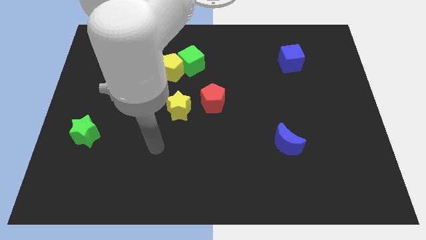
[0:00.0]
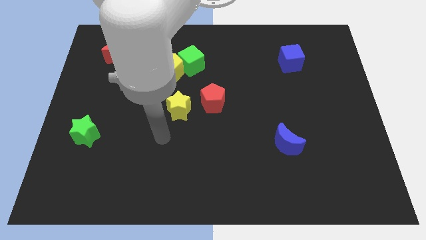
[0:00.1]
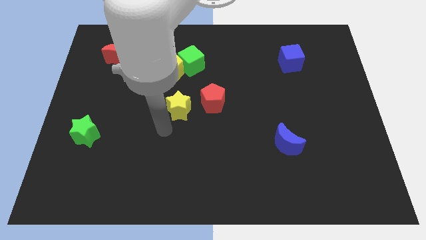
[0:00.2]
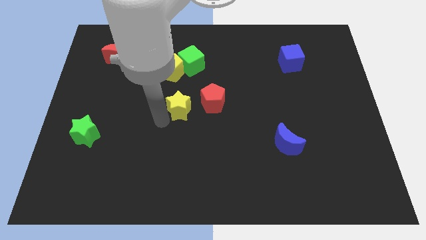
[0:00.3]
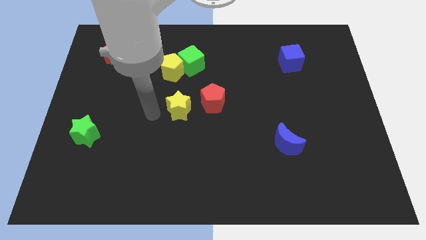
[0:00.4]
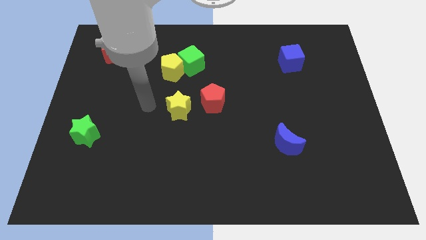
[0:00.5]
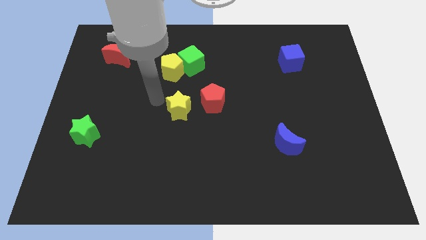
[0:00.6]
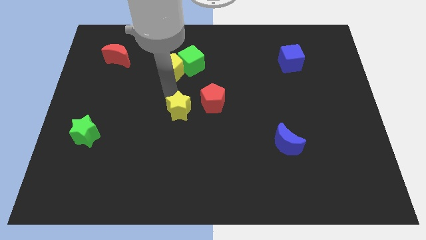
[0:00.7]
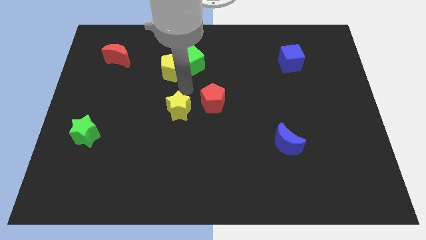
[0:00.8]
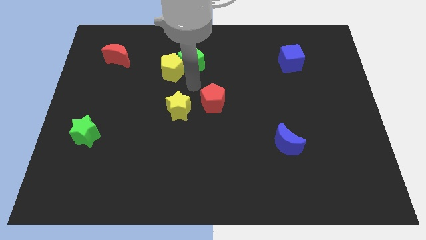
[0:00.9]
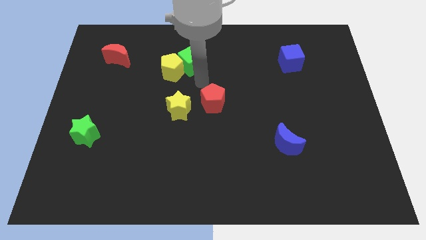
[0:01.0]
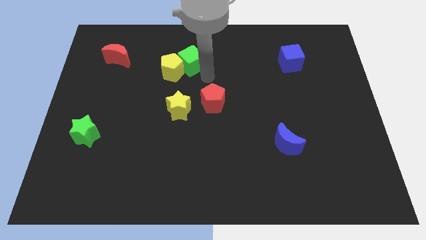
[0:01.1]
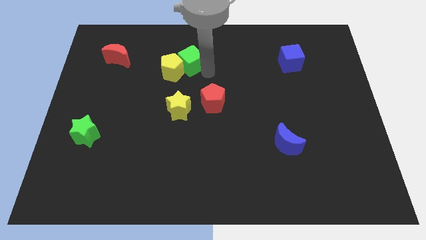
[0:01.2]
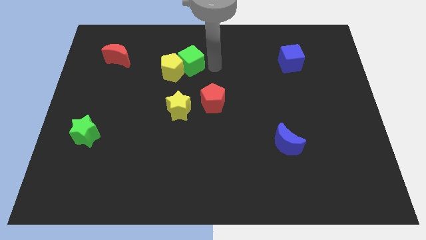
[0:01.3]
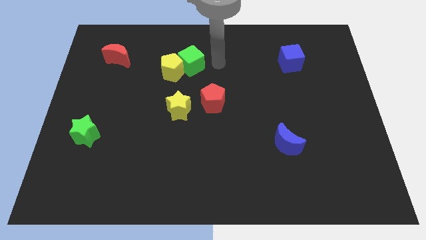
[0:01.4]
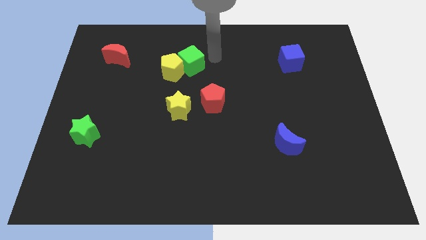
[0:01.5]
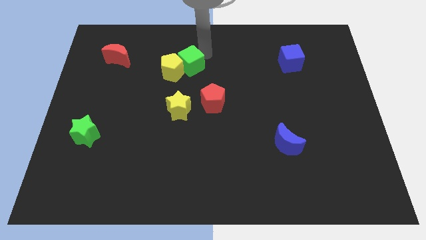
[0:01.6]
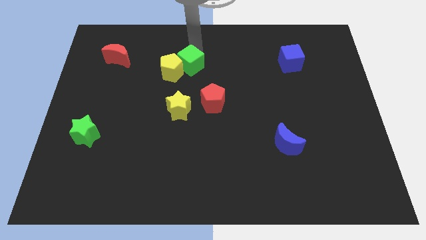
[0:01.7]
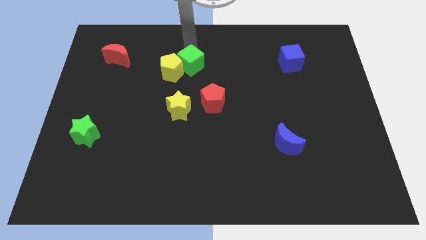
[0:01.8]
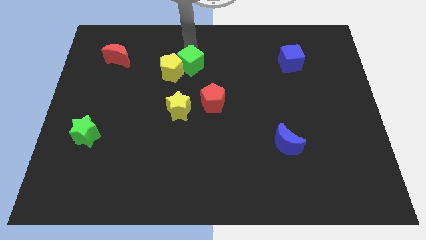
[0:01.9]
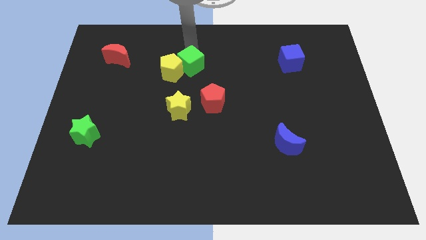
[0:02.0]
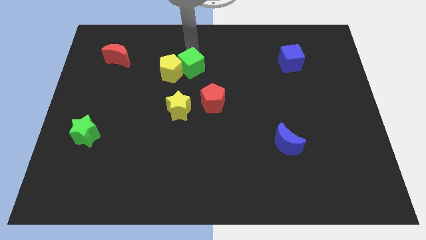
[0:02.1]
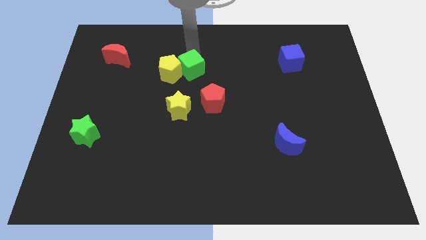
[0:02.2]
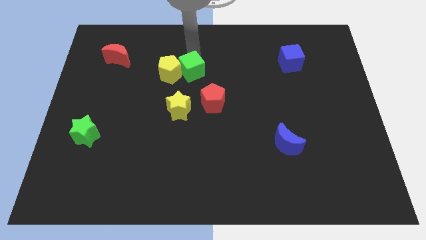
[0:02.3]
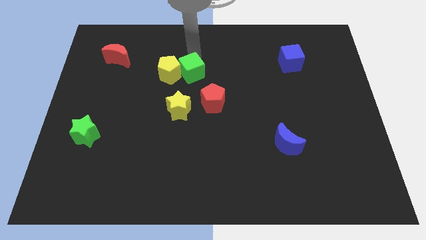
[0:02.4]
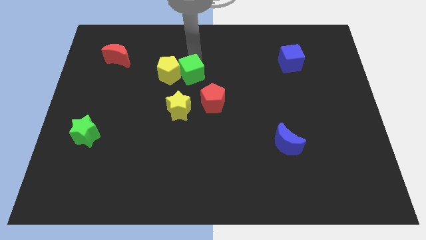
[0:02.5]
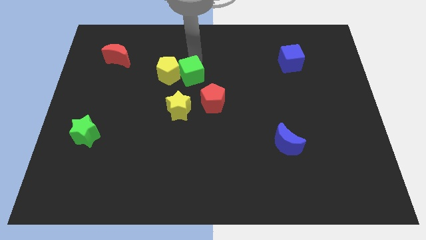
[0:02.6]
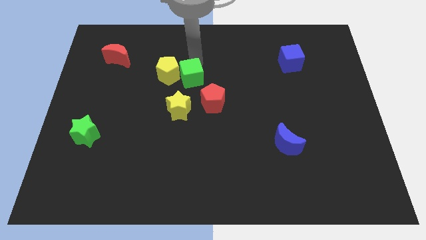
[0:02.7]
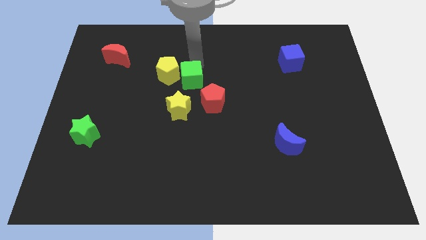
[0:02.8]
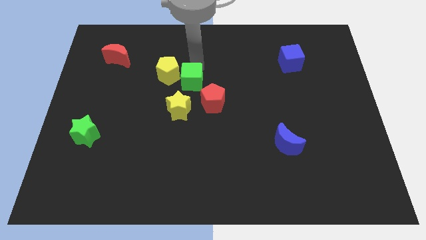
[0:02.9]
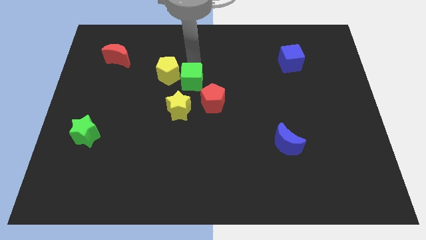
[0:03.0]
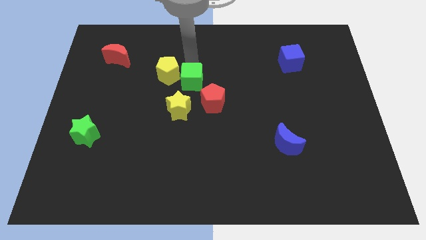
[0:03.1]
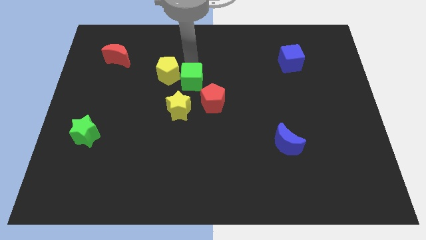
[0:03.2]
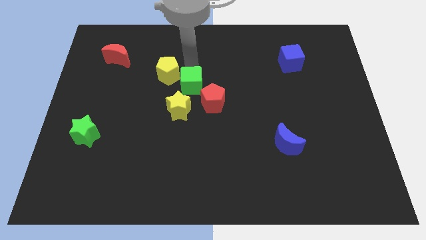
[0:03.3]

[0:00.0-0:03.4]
push the green cube slightly down

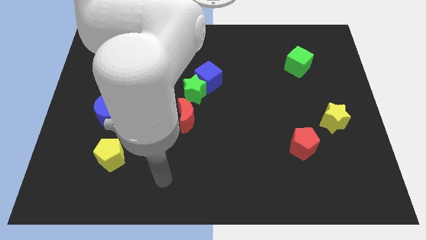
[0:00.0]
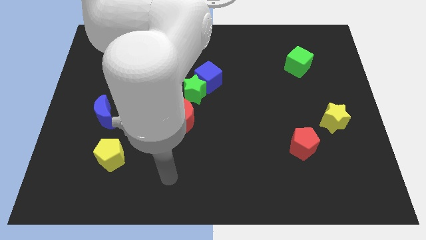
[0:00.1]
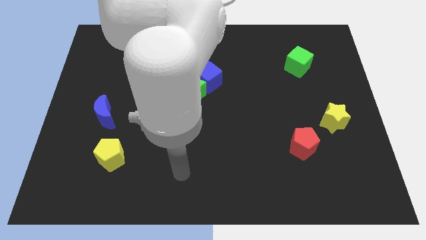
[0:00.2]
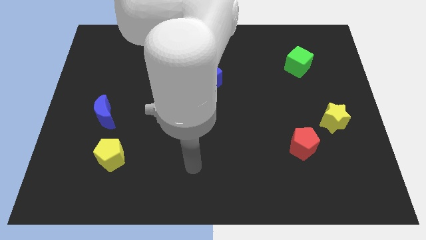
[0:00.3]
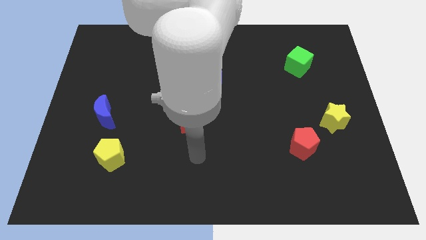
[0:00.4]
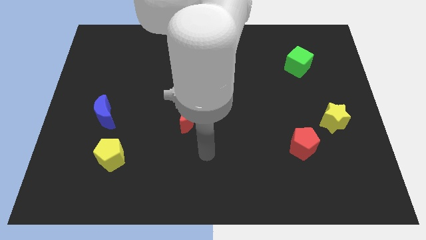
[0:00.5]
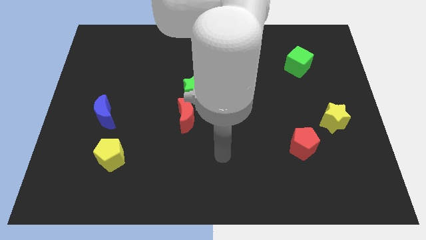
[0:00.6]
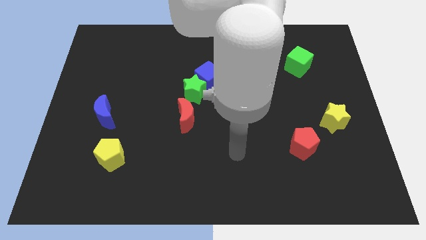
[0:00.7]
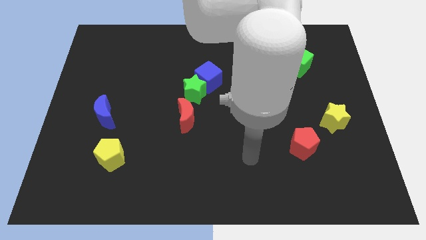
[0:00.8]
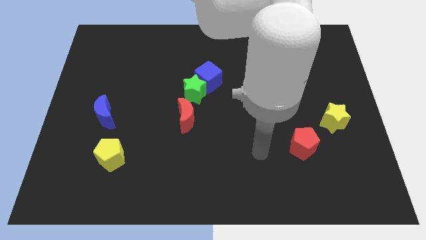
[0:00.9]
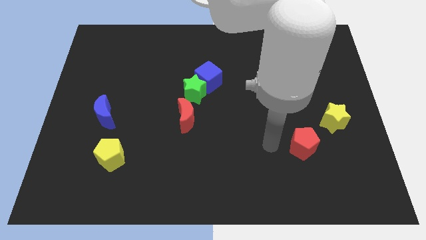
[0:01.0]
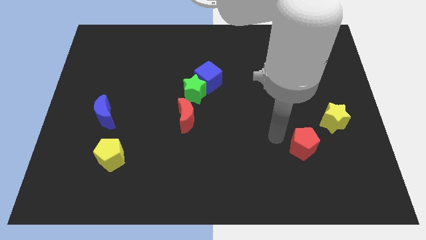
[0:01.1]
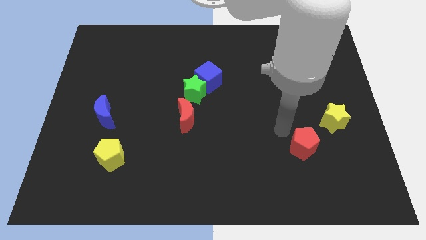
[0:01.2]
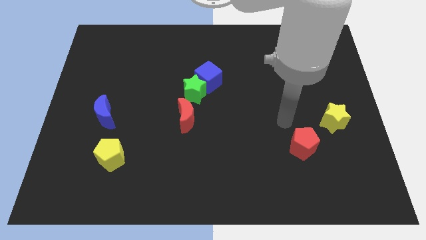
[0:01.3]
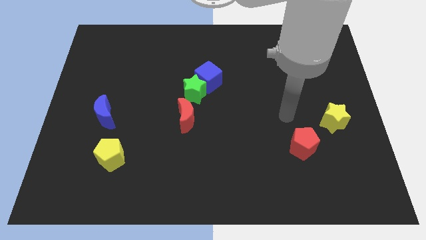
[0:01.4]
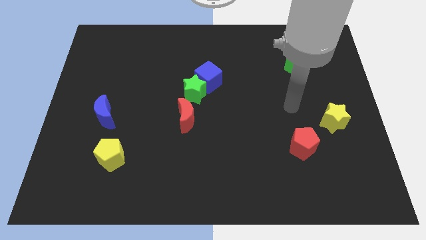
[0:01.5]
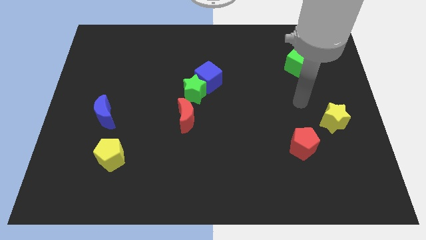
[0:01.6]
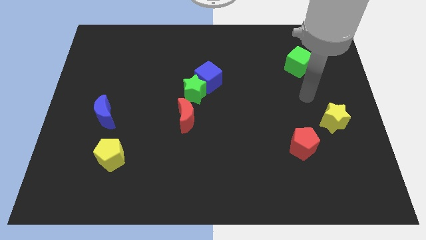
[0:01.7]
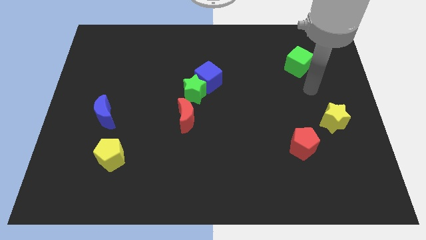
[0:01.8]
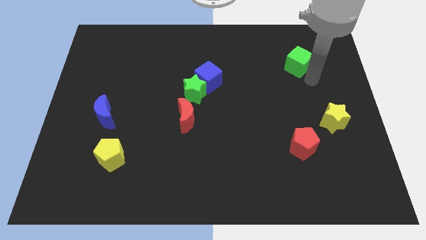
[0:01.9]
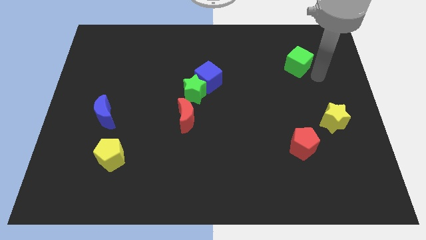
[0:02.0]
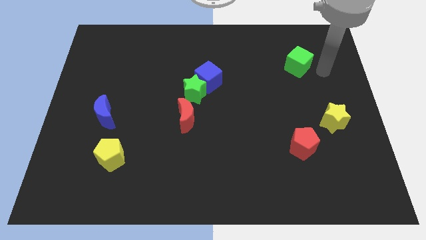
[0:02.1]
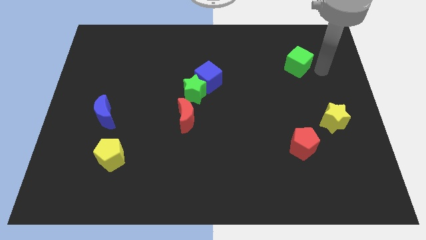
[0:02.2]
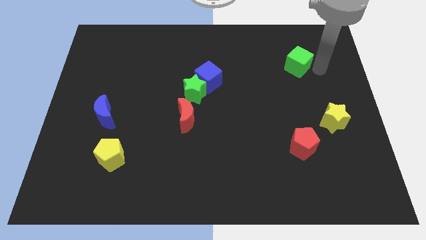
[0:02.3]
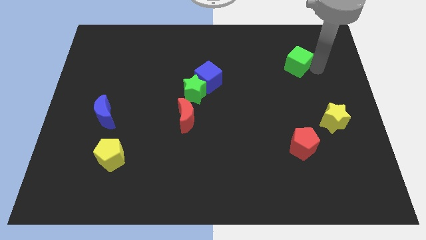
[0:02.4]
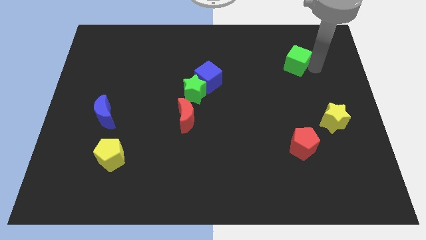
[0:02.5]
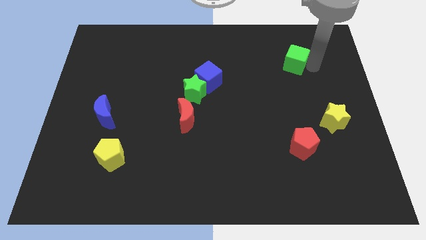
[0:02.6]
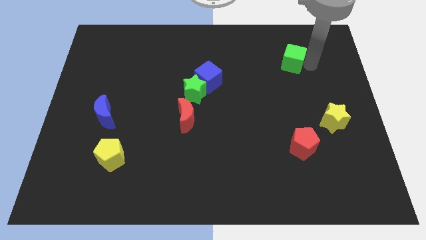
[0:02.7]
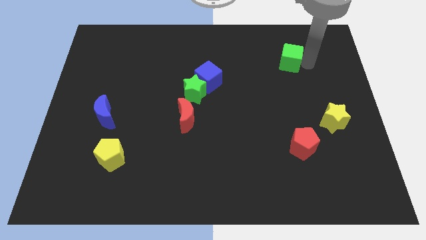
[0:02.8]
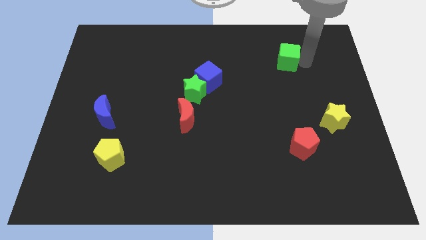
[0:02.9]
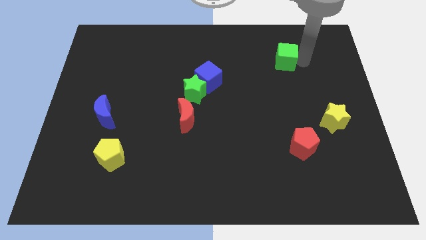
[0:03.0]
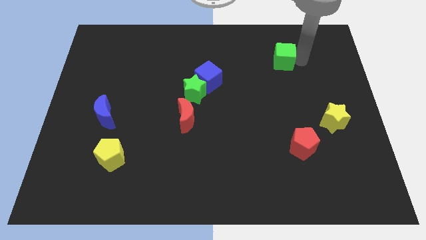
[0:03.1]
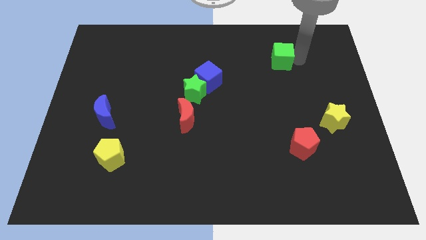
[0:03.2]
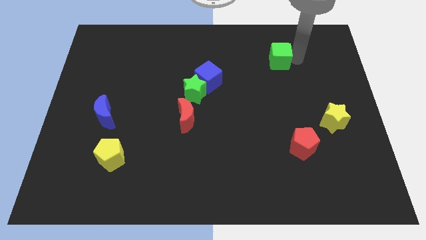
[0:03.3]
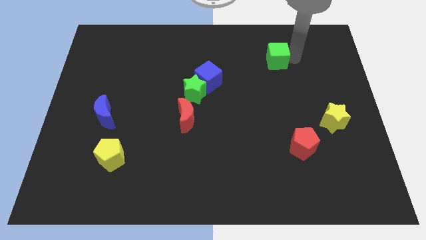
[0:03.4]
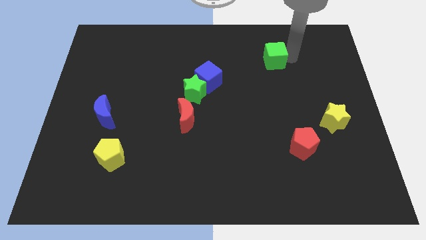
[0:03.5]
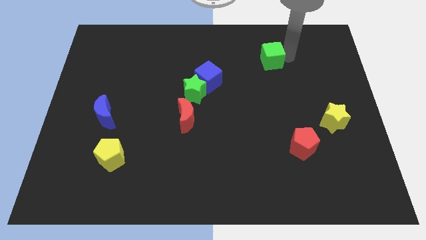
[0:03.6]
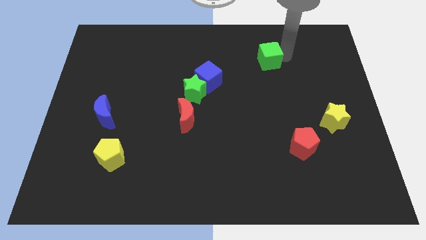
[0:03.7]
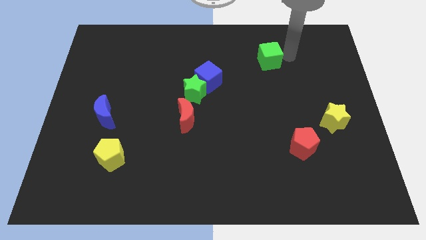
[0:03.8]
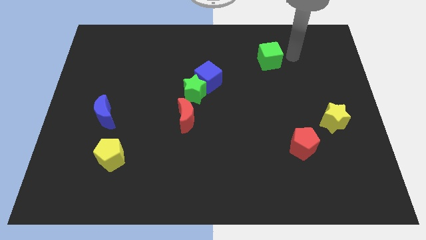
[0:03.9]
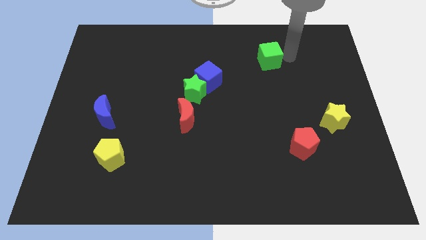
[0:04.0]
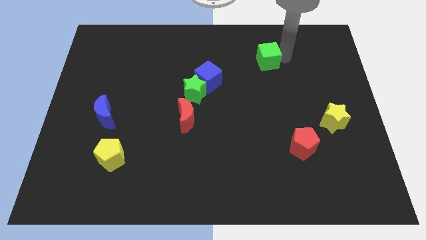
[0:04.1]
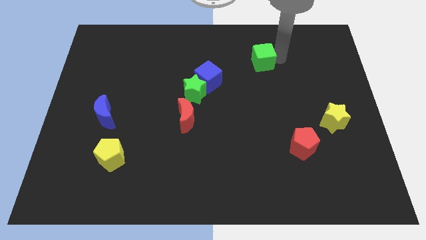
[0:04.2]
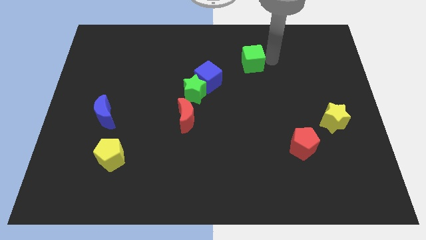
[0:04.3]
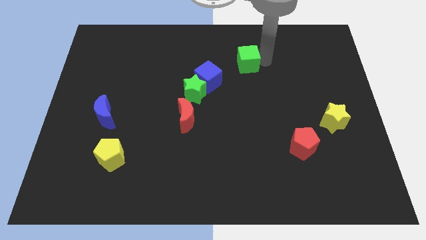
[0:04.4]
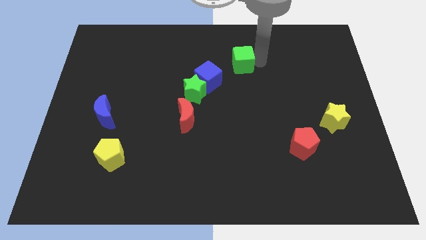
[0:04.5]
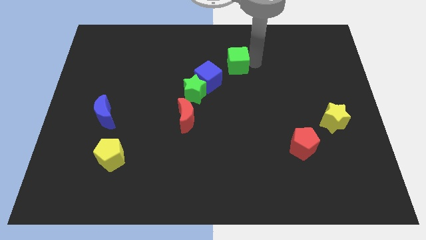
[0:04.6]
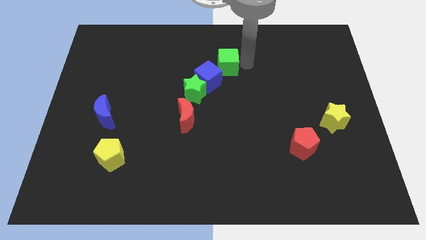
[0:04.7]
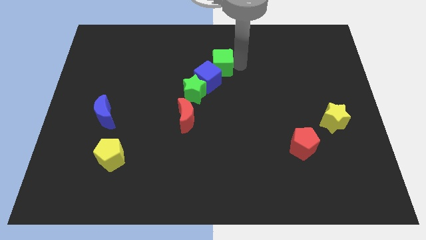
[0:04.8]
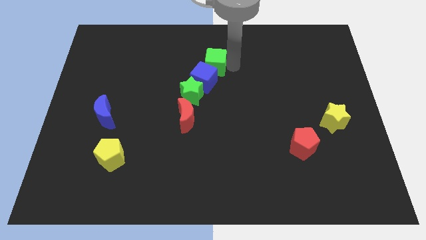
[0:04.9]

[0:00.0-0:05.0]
slide the green cube to the left
